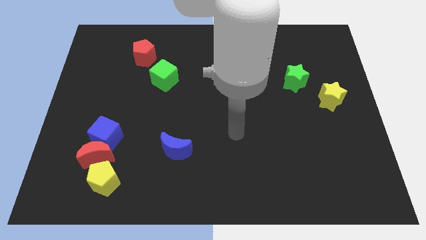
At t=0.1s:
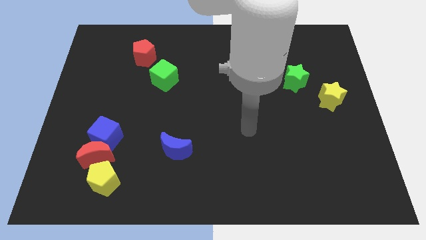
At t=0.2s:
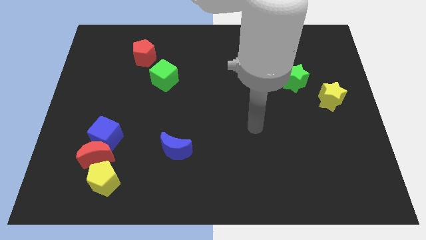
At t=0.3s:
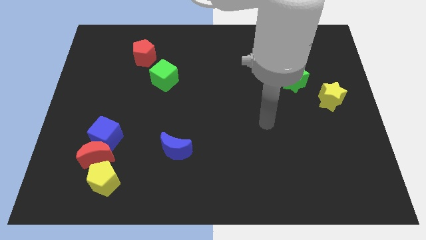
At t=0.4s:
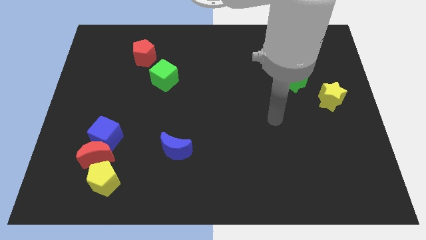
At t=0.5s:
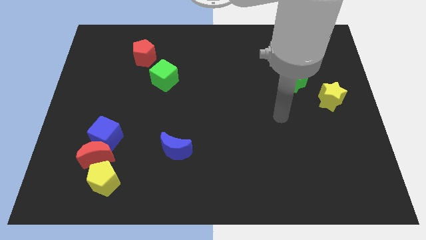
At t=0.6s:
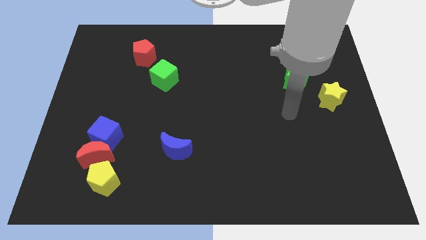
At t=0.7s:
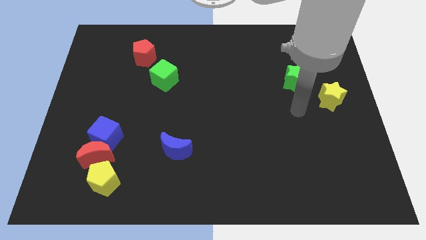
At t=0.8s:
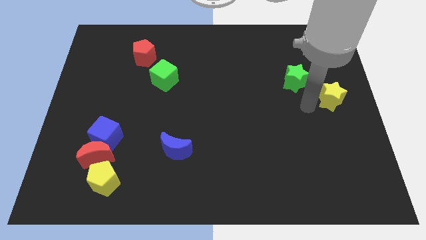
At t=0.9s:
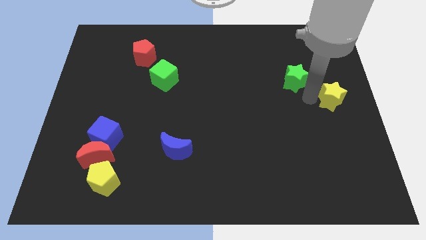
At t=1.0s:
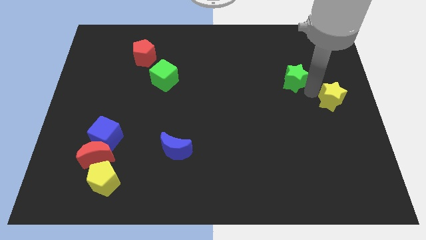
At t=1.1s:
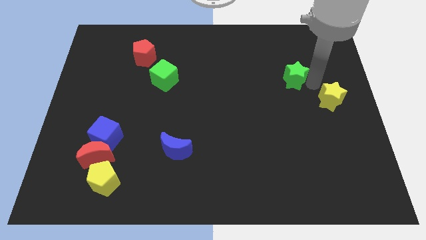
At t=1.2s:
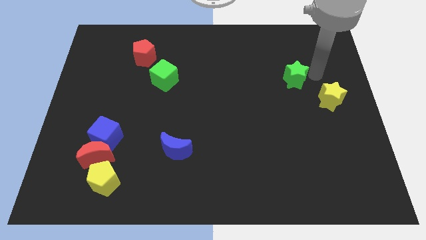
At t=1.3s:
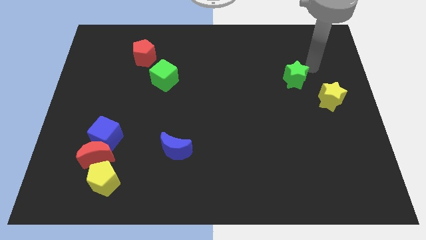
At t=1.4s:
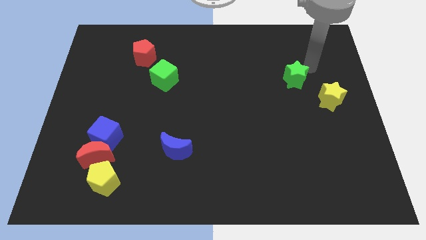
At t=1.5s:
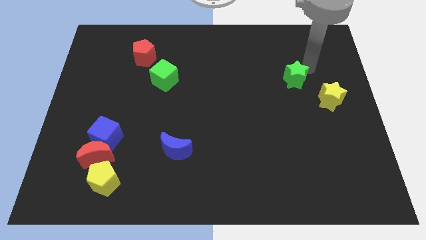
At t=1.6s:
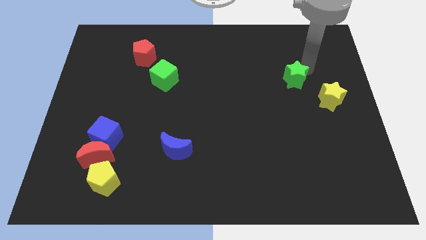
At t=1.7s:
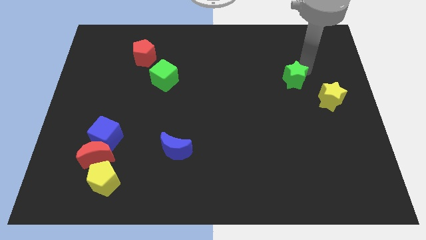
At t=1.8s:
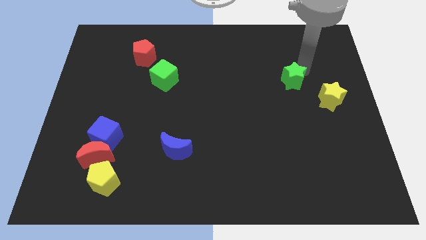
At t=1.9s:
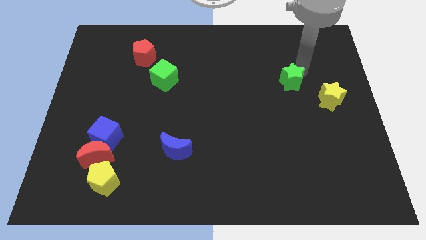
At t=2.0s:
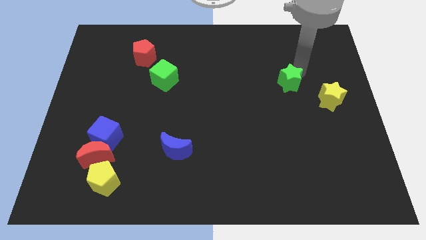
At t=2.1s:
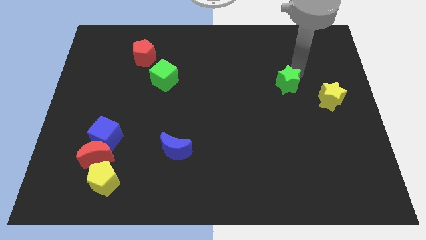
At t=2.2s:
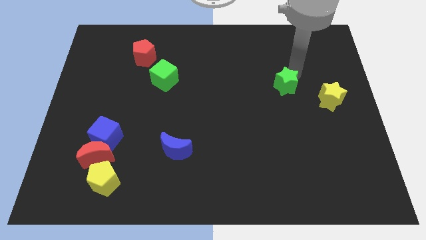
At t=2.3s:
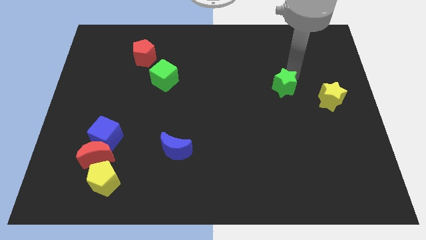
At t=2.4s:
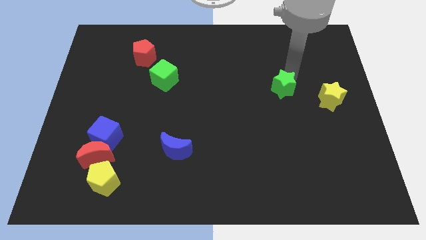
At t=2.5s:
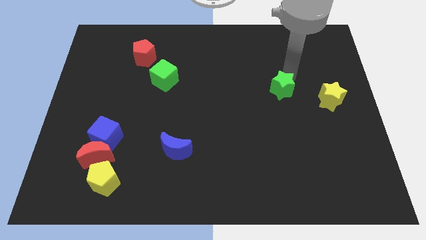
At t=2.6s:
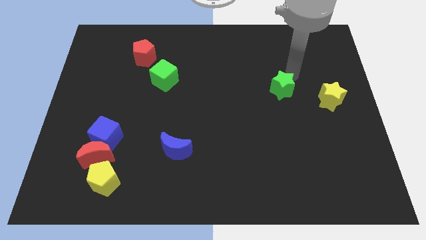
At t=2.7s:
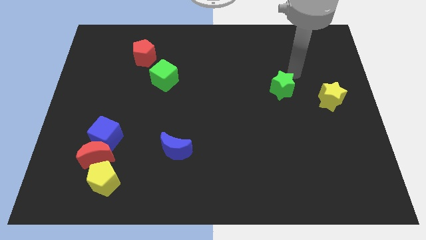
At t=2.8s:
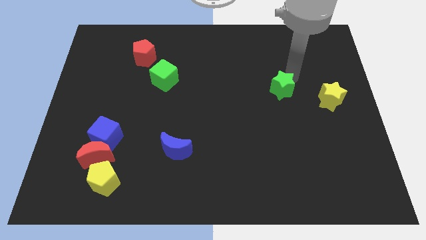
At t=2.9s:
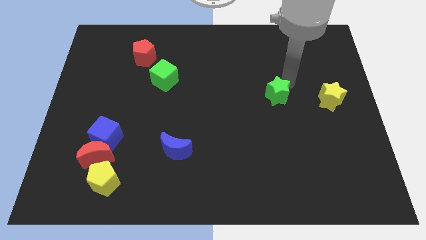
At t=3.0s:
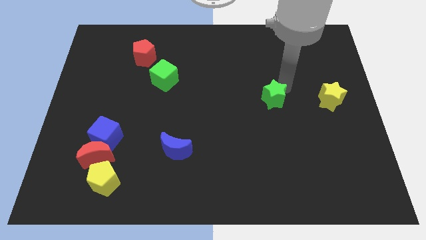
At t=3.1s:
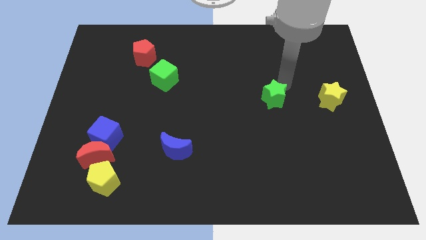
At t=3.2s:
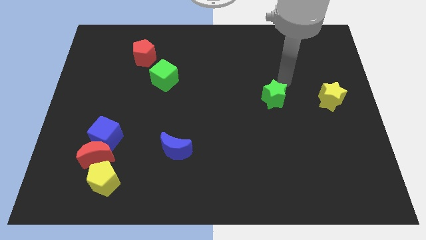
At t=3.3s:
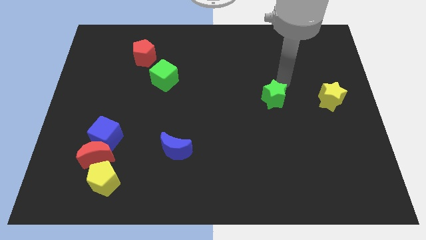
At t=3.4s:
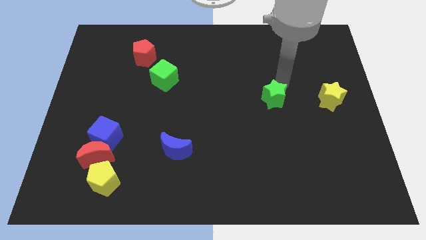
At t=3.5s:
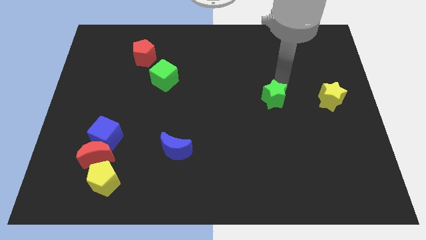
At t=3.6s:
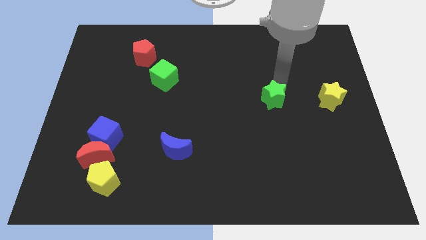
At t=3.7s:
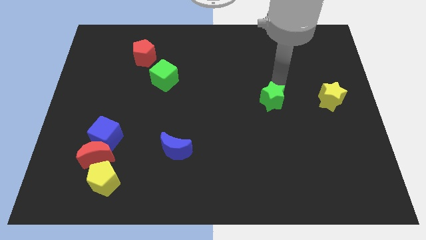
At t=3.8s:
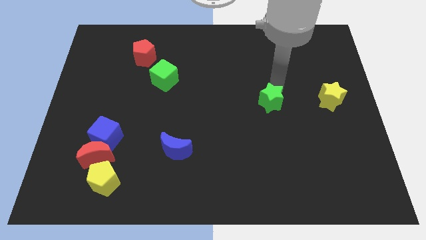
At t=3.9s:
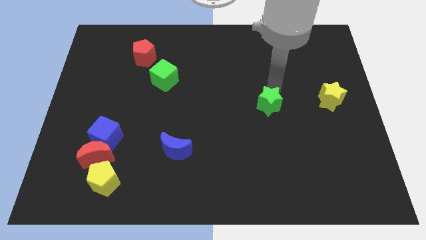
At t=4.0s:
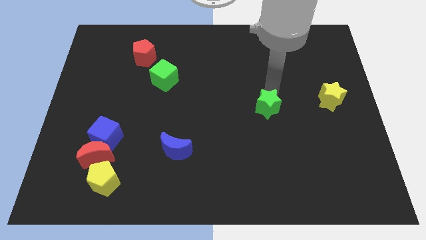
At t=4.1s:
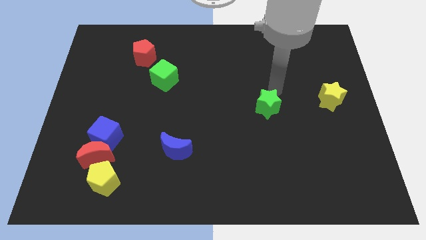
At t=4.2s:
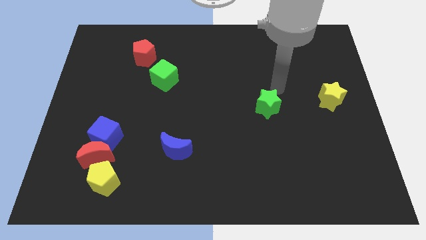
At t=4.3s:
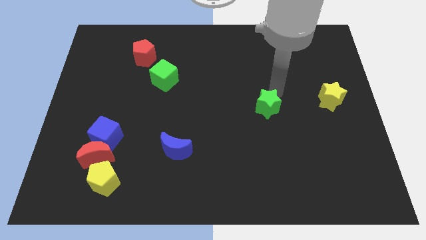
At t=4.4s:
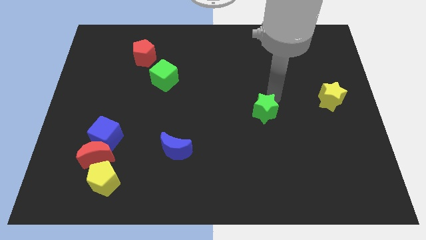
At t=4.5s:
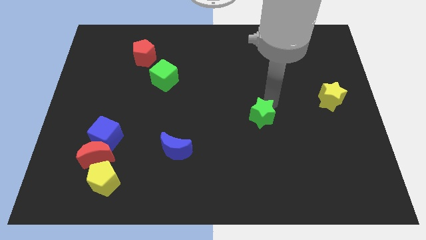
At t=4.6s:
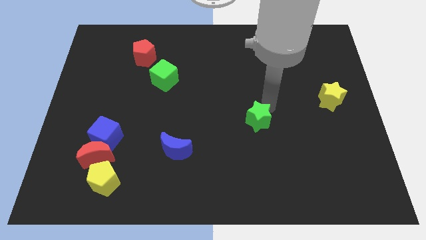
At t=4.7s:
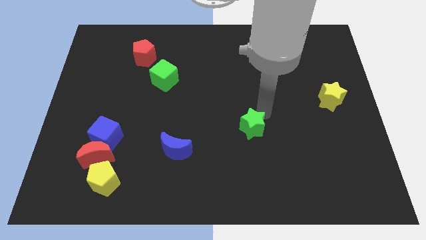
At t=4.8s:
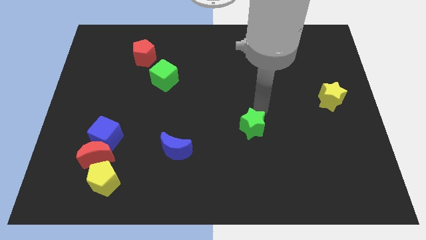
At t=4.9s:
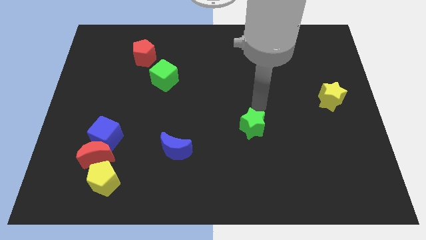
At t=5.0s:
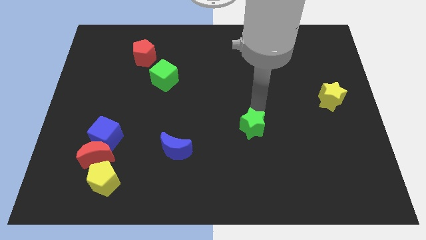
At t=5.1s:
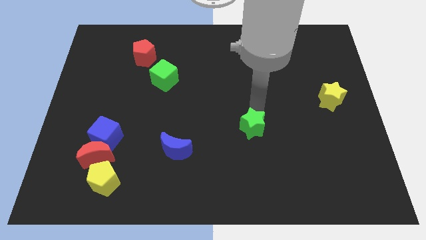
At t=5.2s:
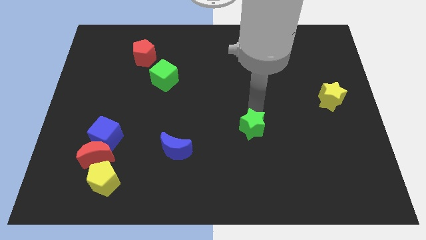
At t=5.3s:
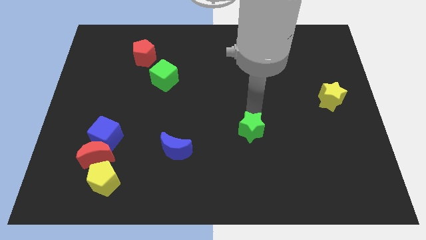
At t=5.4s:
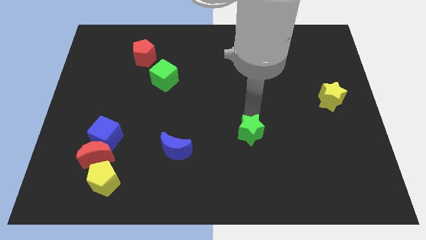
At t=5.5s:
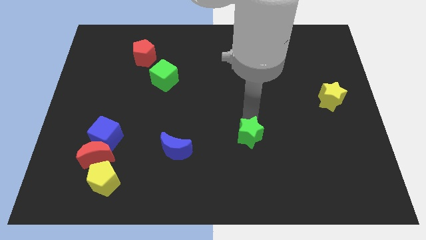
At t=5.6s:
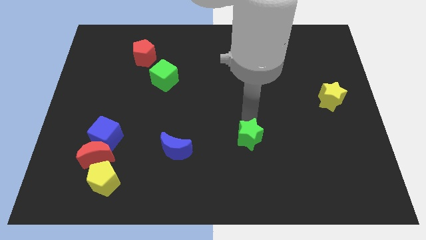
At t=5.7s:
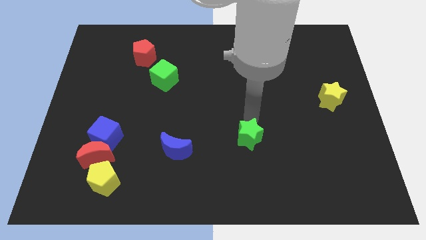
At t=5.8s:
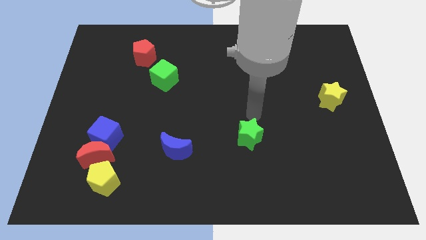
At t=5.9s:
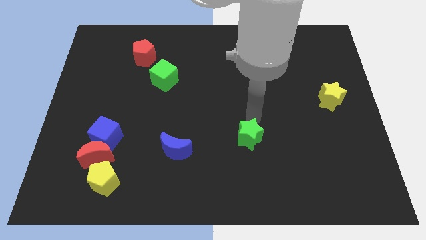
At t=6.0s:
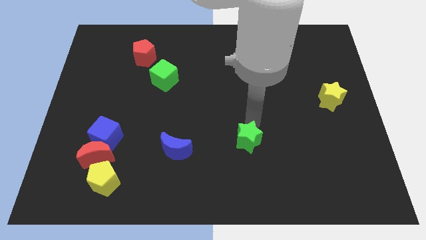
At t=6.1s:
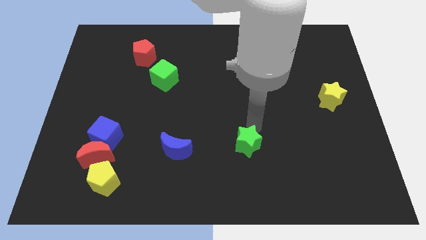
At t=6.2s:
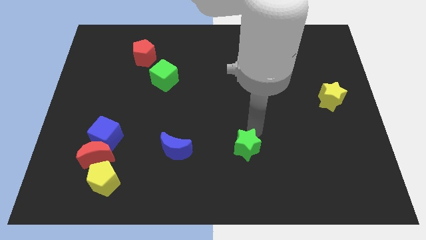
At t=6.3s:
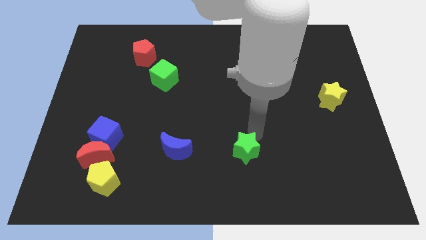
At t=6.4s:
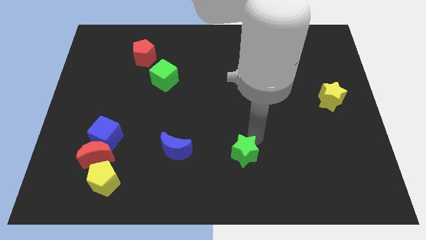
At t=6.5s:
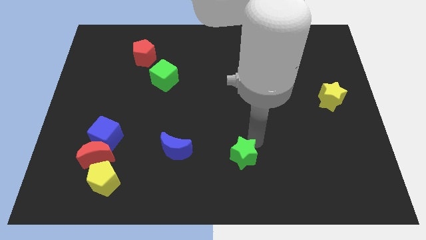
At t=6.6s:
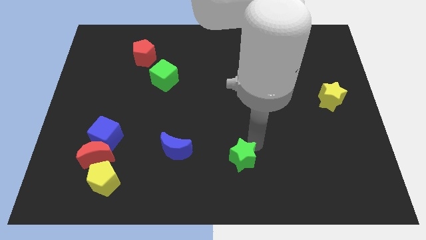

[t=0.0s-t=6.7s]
slide the green star to the bottom
